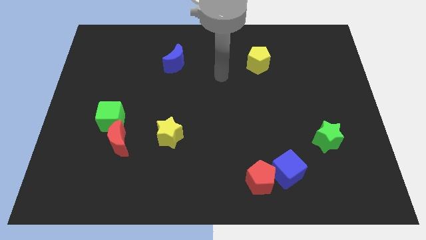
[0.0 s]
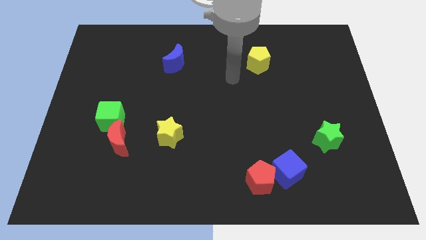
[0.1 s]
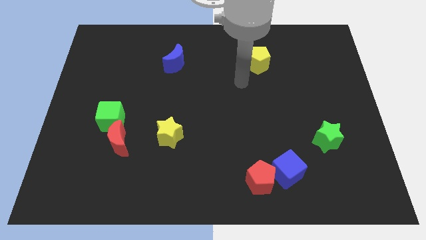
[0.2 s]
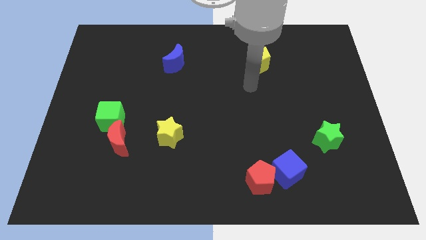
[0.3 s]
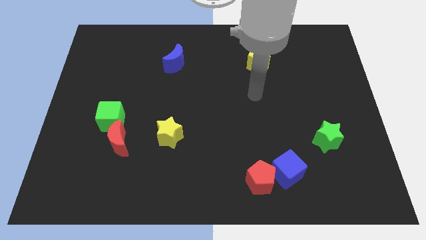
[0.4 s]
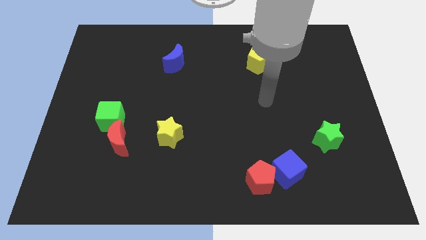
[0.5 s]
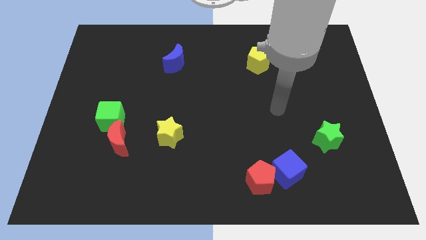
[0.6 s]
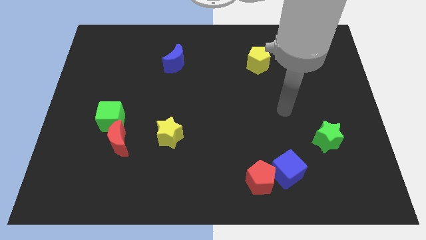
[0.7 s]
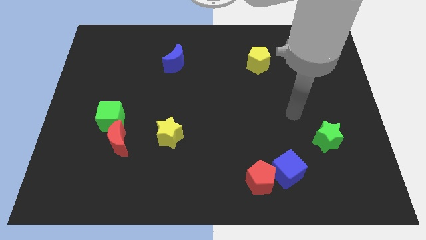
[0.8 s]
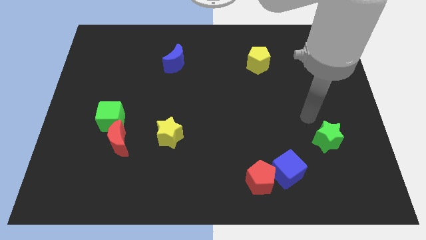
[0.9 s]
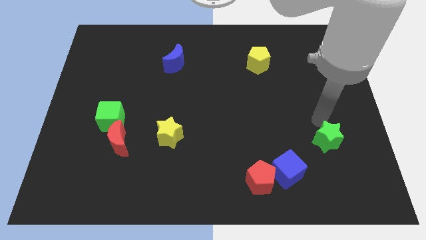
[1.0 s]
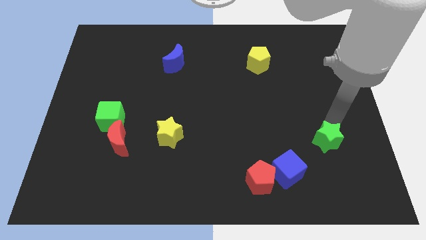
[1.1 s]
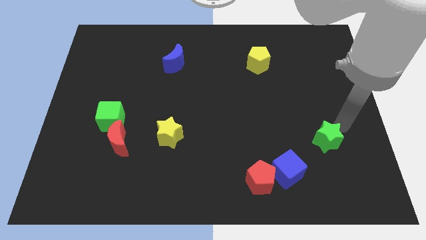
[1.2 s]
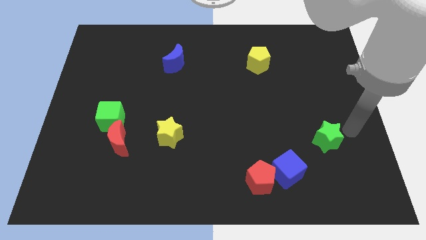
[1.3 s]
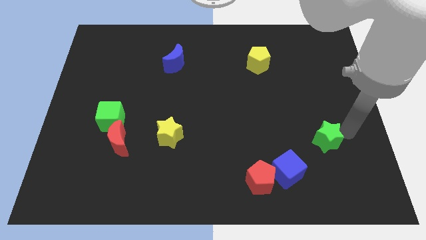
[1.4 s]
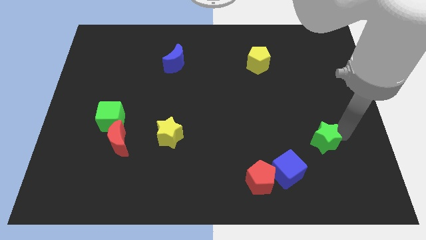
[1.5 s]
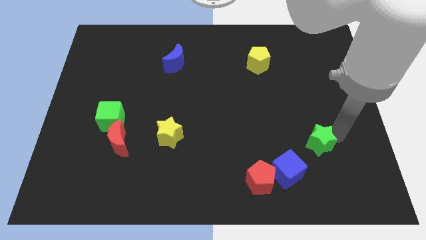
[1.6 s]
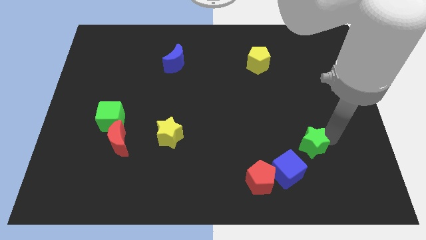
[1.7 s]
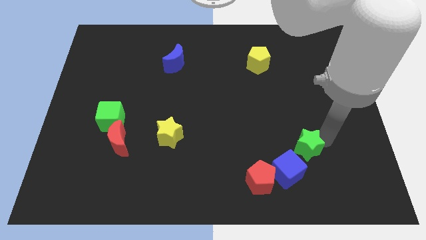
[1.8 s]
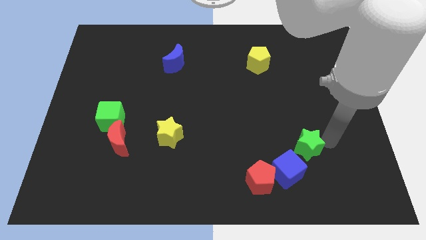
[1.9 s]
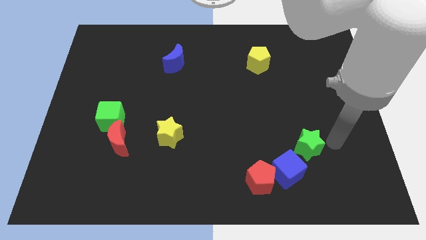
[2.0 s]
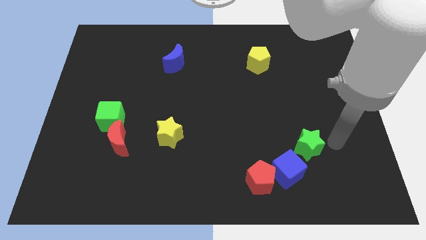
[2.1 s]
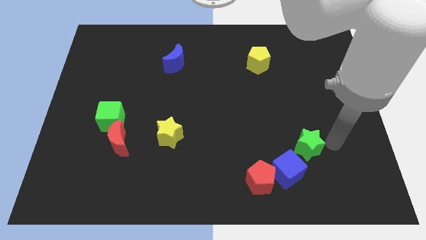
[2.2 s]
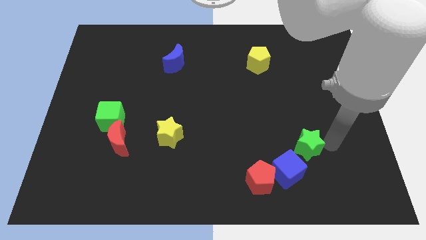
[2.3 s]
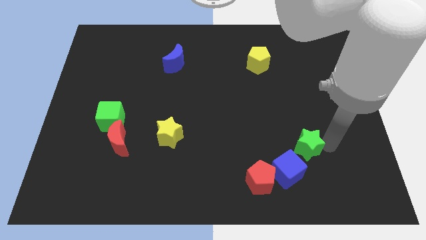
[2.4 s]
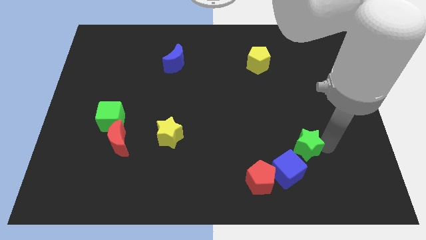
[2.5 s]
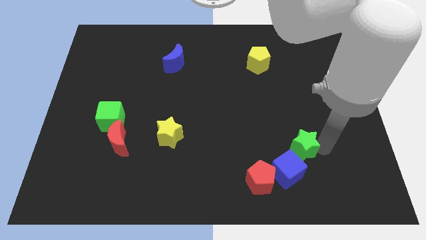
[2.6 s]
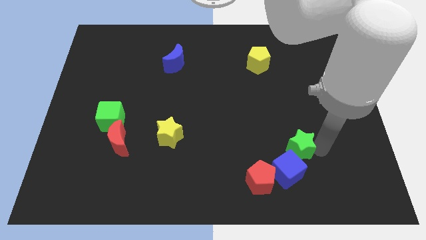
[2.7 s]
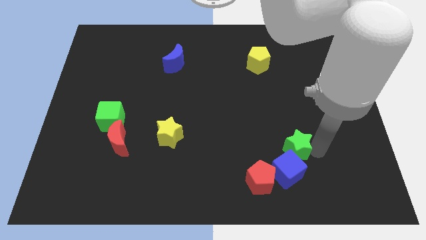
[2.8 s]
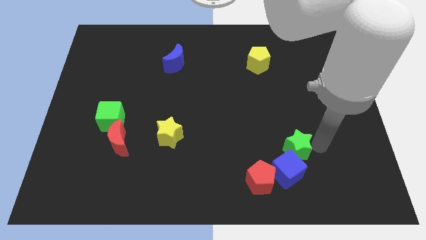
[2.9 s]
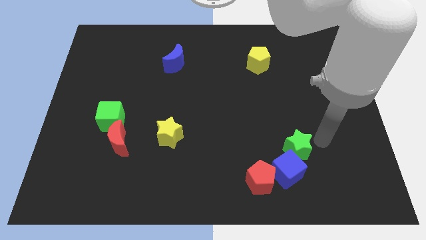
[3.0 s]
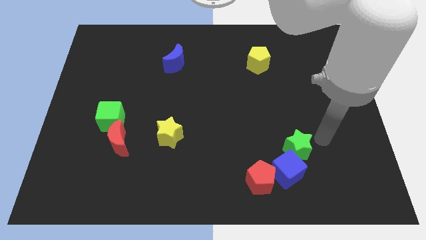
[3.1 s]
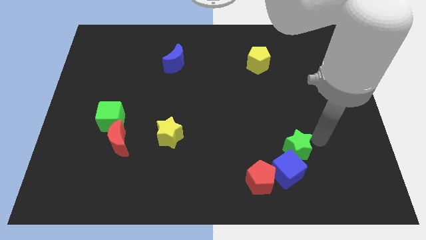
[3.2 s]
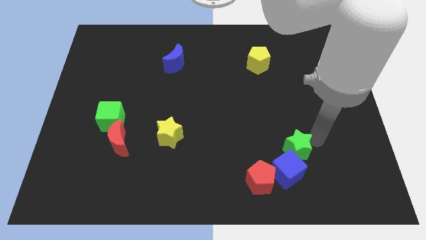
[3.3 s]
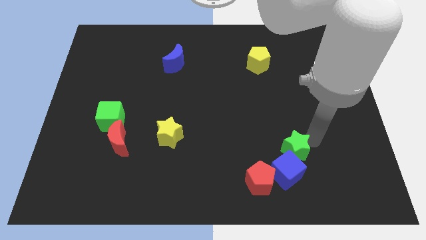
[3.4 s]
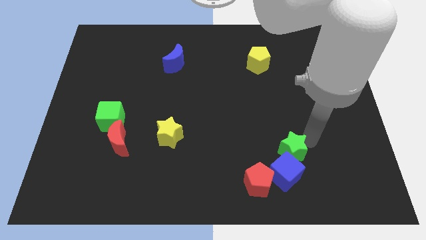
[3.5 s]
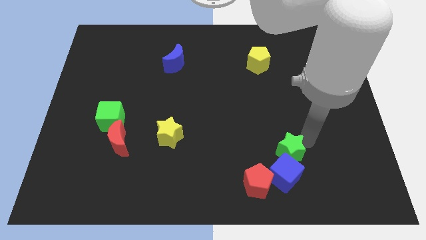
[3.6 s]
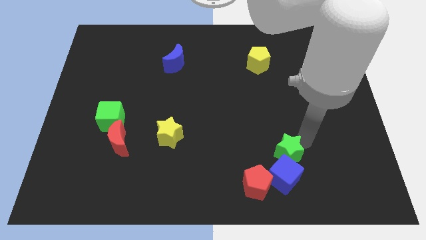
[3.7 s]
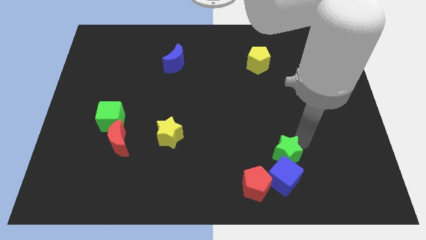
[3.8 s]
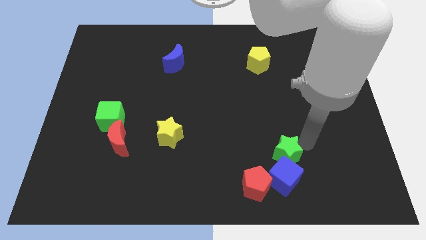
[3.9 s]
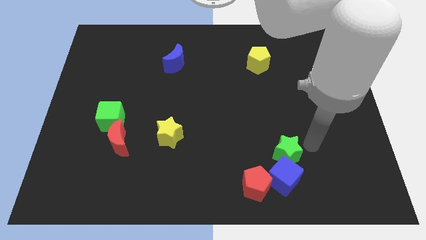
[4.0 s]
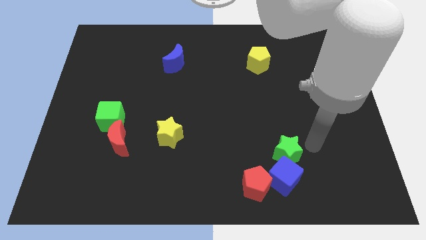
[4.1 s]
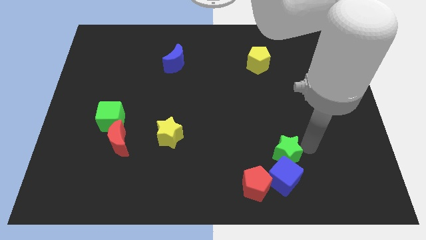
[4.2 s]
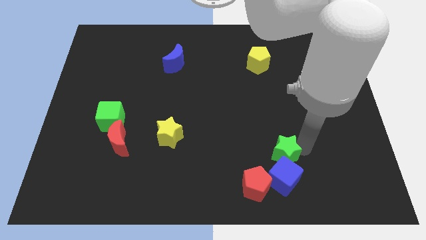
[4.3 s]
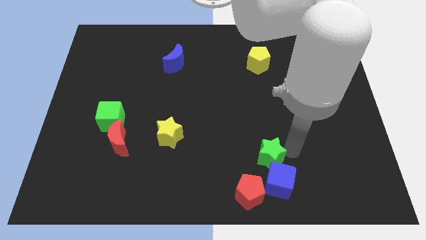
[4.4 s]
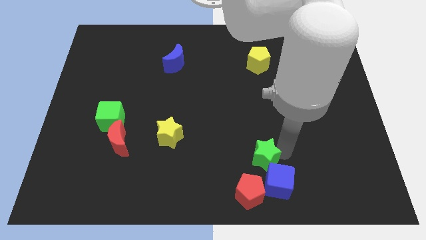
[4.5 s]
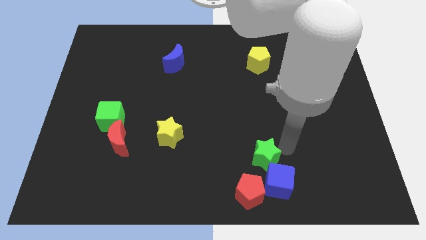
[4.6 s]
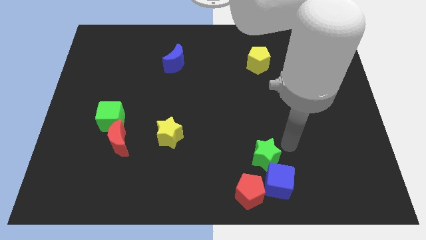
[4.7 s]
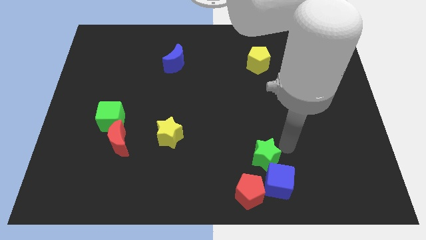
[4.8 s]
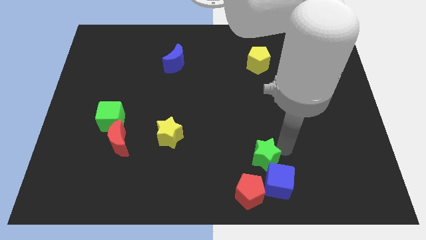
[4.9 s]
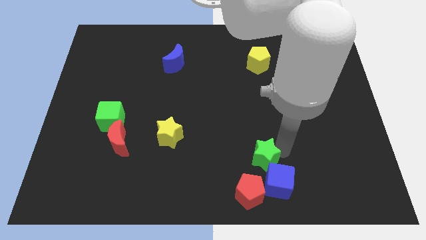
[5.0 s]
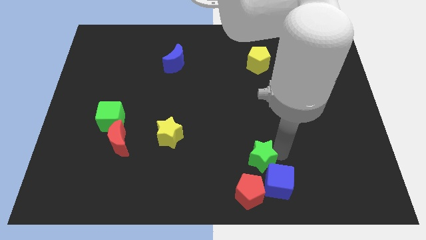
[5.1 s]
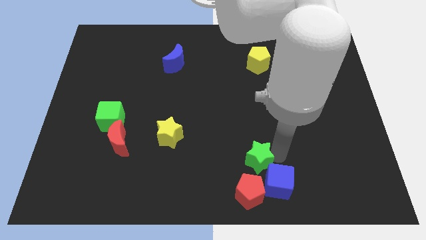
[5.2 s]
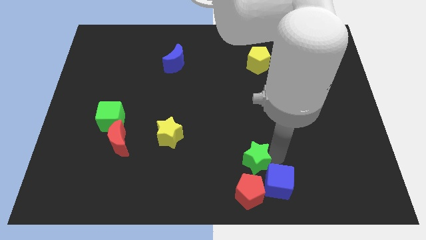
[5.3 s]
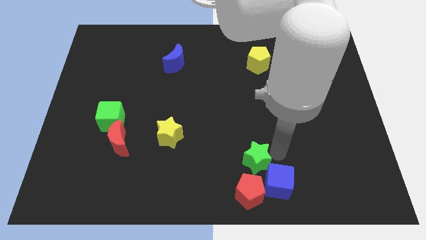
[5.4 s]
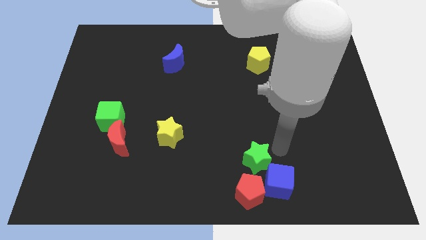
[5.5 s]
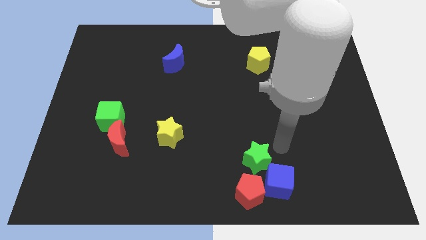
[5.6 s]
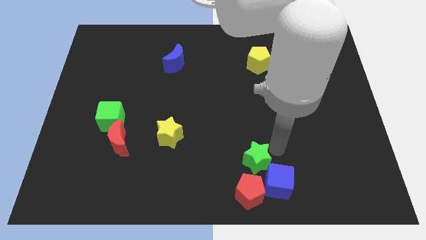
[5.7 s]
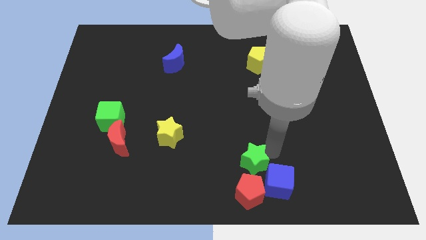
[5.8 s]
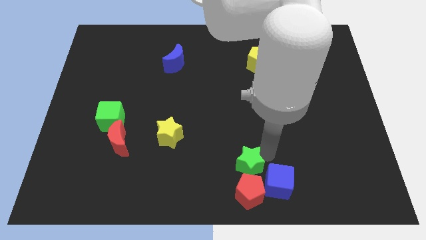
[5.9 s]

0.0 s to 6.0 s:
push the green star to the bottom

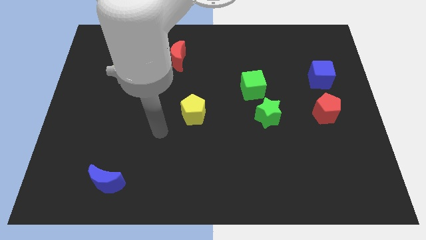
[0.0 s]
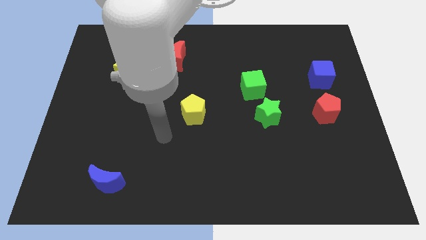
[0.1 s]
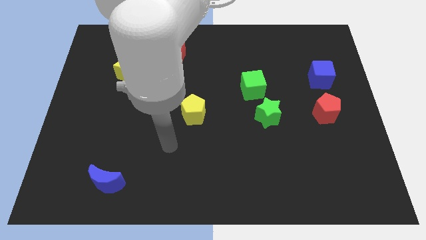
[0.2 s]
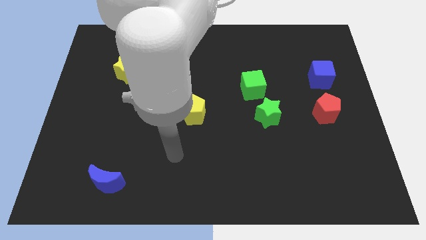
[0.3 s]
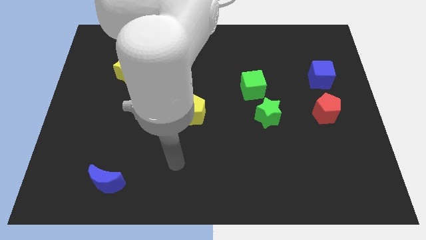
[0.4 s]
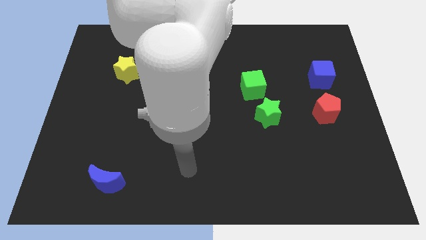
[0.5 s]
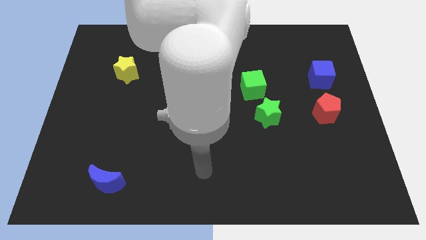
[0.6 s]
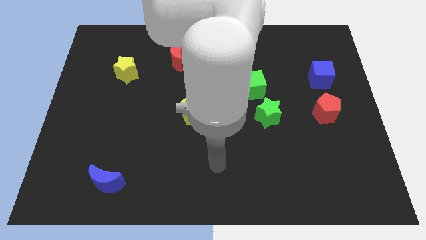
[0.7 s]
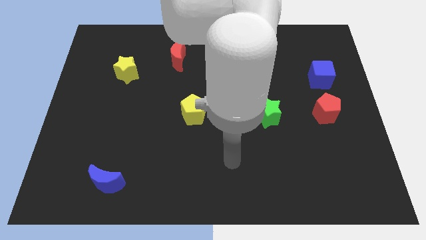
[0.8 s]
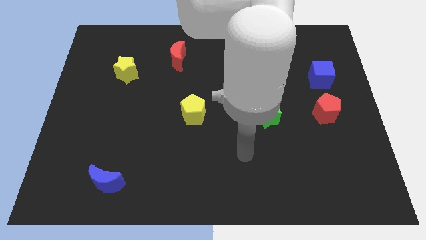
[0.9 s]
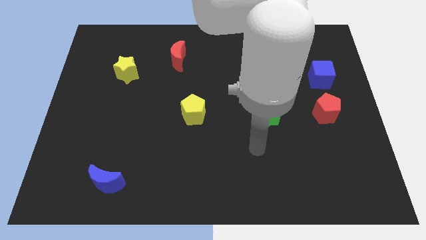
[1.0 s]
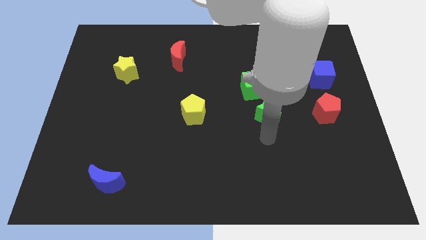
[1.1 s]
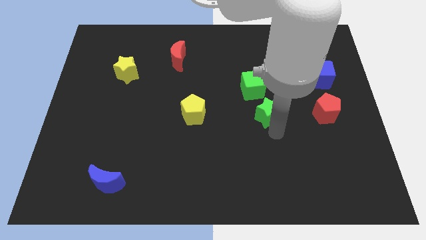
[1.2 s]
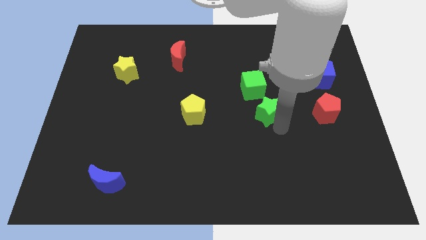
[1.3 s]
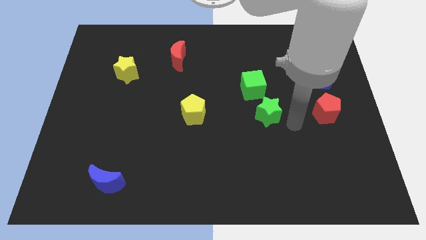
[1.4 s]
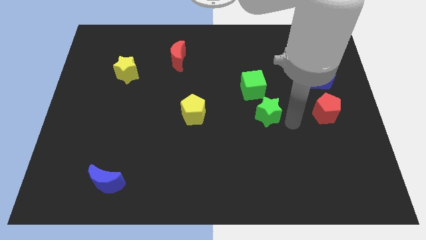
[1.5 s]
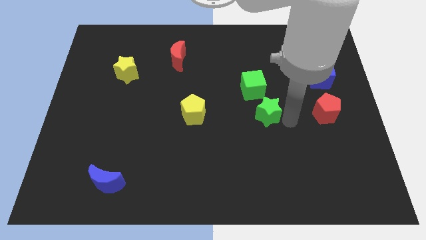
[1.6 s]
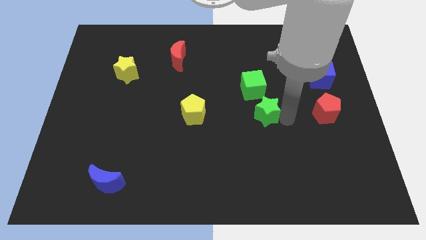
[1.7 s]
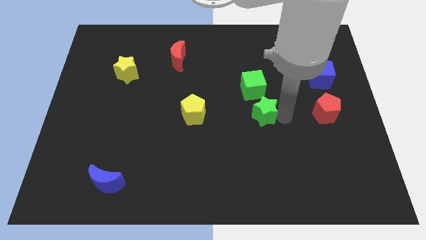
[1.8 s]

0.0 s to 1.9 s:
slide the green star to the center
